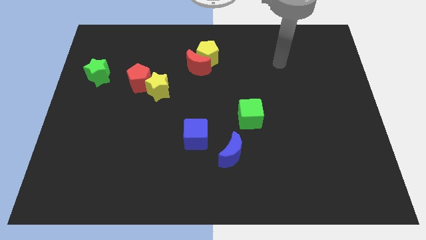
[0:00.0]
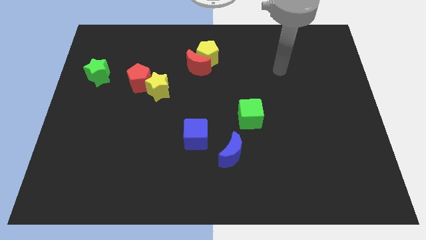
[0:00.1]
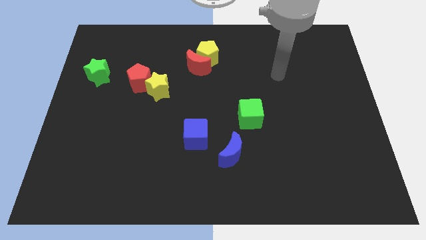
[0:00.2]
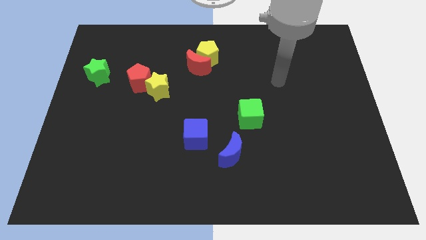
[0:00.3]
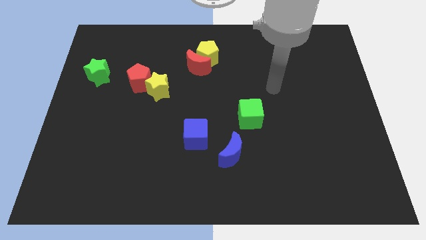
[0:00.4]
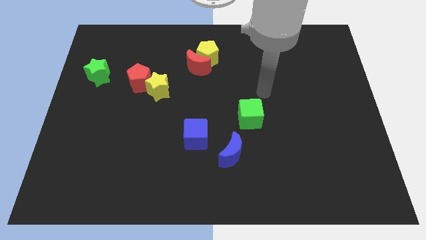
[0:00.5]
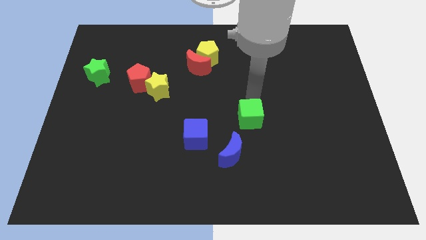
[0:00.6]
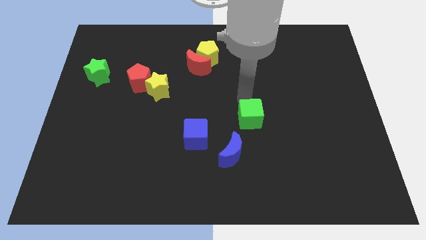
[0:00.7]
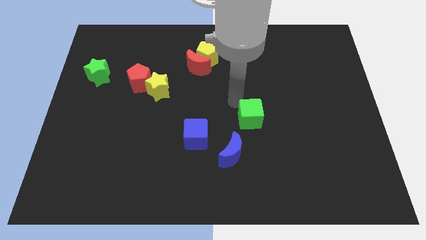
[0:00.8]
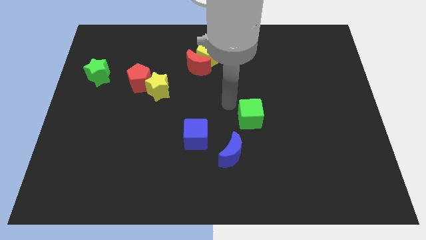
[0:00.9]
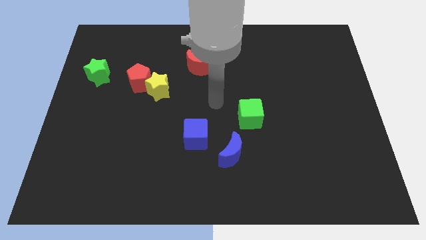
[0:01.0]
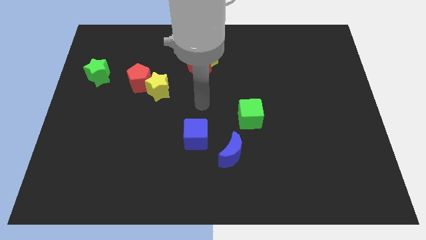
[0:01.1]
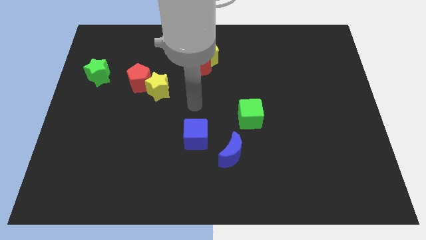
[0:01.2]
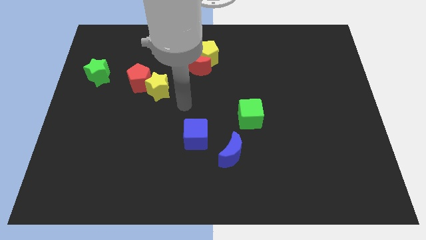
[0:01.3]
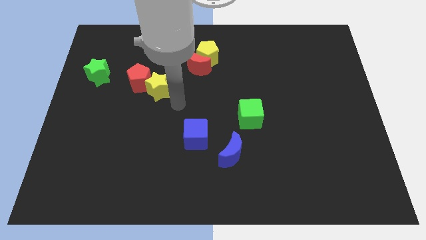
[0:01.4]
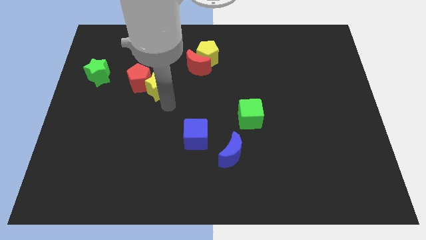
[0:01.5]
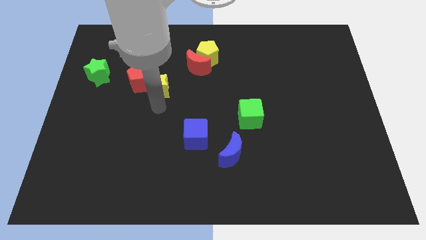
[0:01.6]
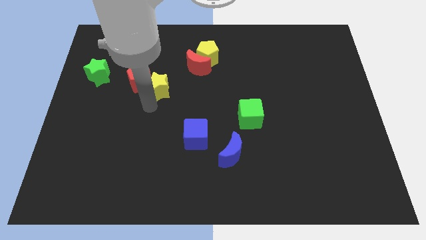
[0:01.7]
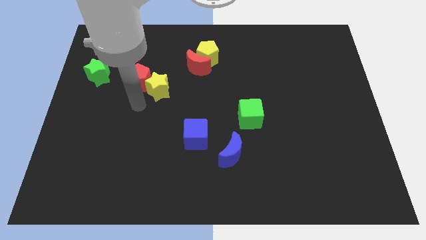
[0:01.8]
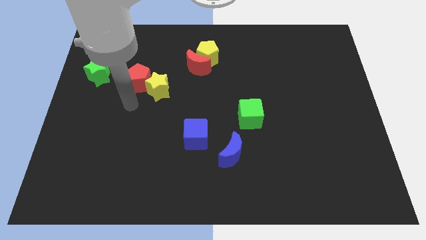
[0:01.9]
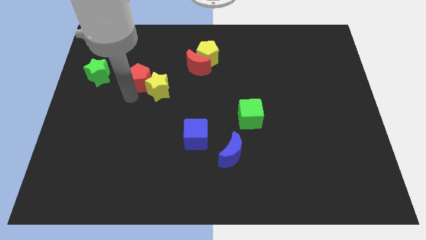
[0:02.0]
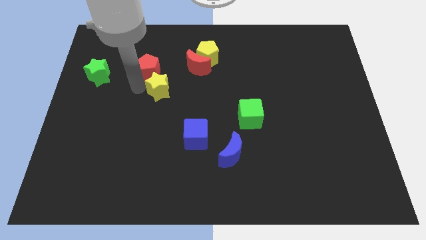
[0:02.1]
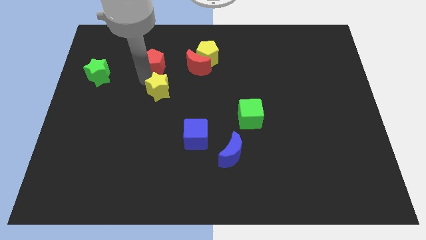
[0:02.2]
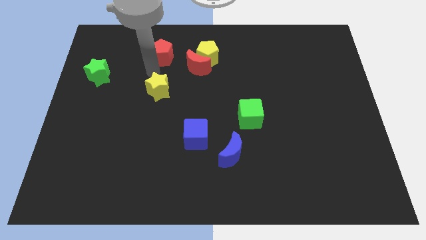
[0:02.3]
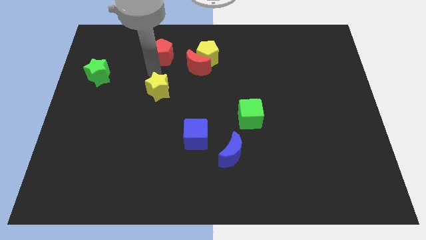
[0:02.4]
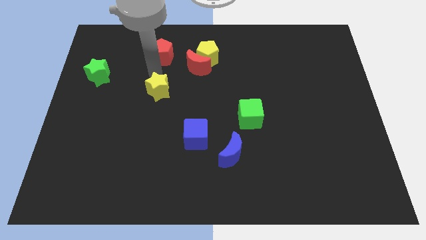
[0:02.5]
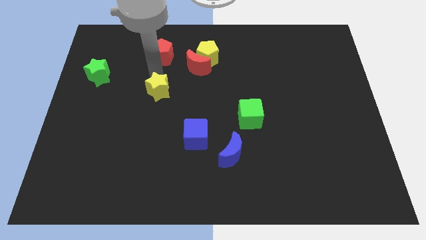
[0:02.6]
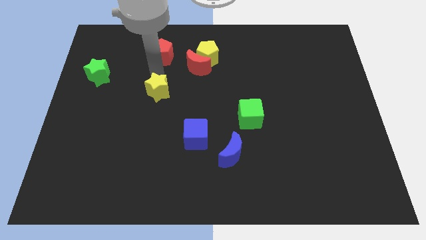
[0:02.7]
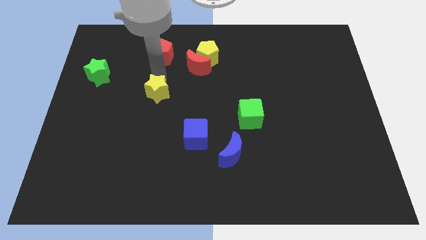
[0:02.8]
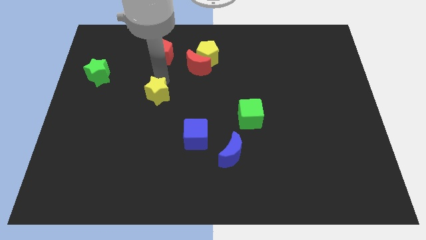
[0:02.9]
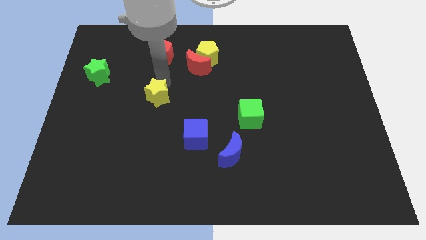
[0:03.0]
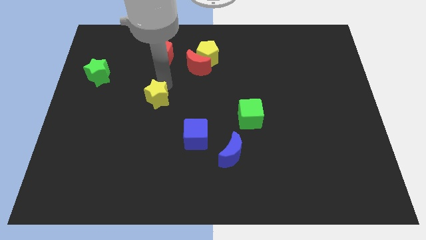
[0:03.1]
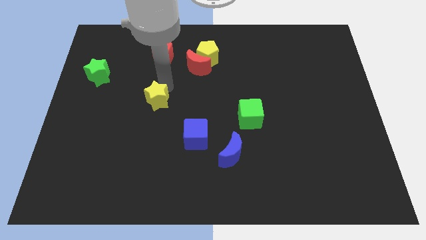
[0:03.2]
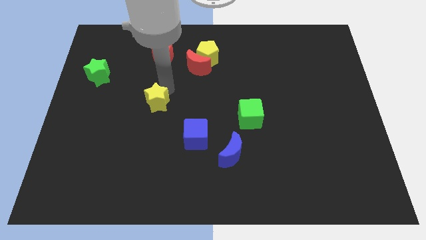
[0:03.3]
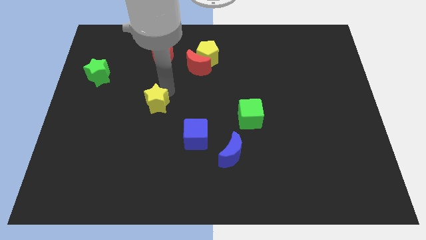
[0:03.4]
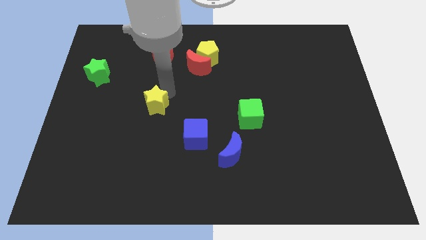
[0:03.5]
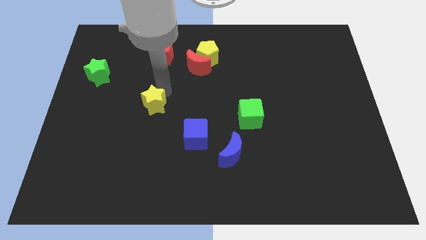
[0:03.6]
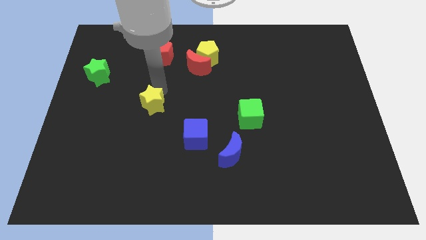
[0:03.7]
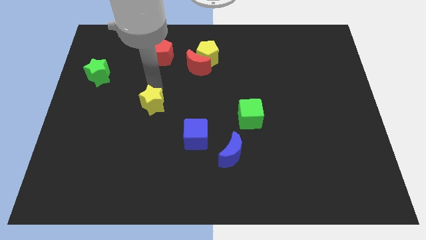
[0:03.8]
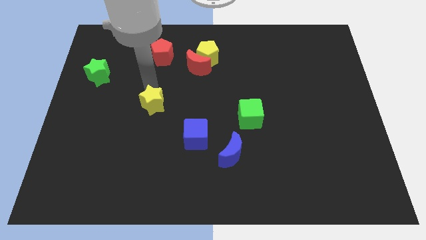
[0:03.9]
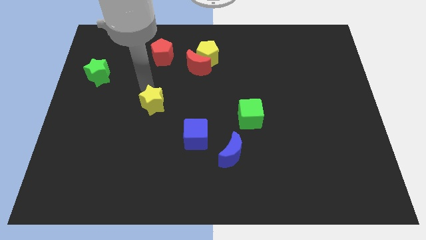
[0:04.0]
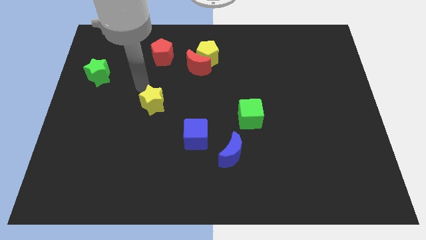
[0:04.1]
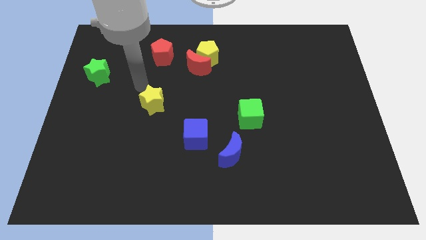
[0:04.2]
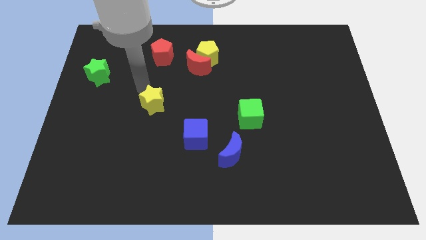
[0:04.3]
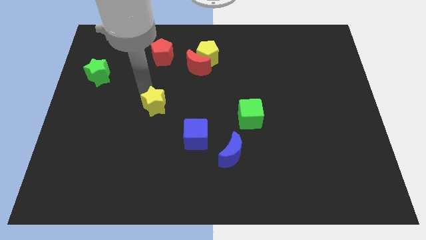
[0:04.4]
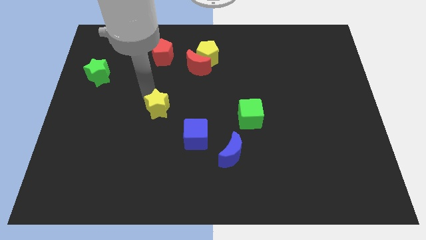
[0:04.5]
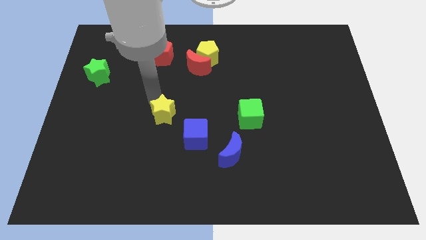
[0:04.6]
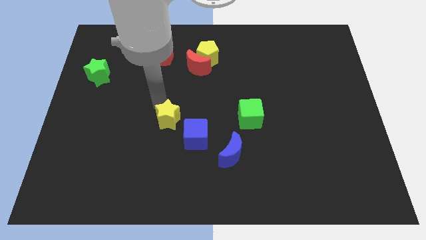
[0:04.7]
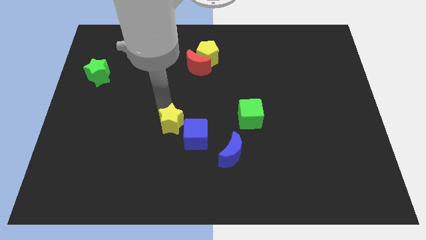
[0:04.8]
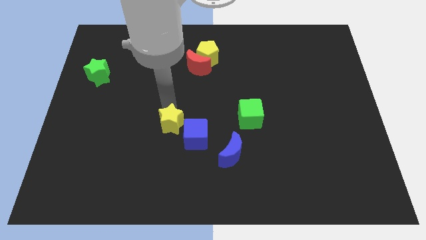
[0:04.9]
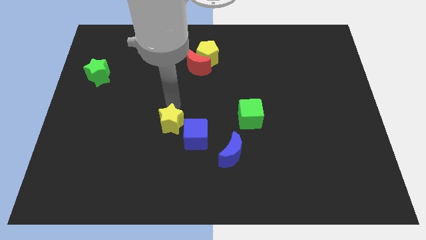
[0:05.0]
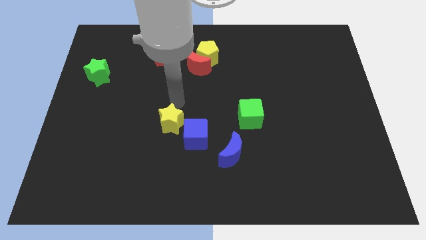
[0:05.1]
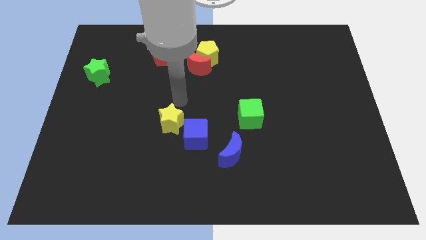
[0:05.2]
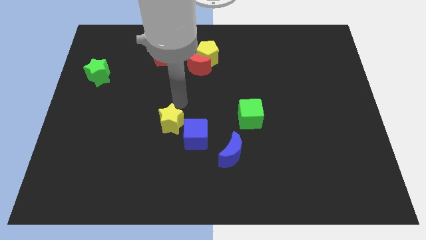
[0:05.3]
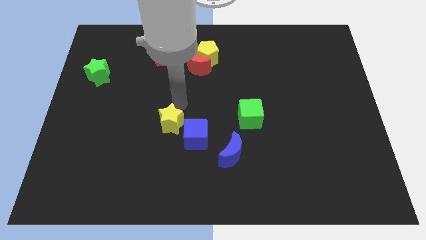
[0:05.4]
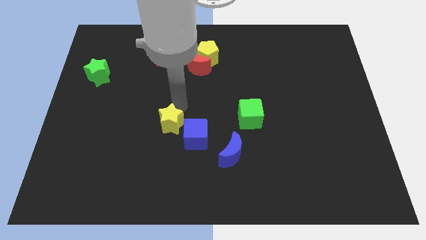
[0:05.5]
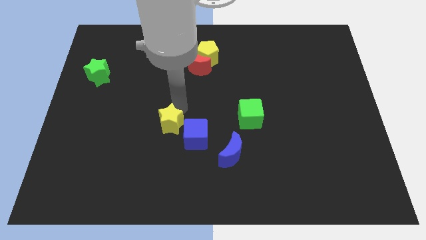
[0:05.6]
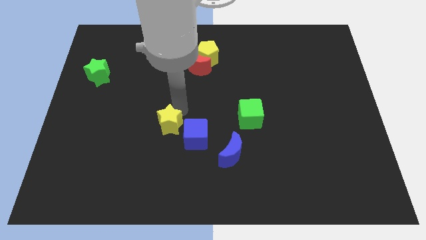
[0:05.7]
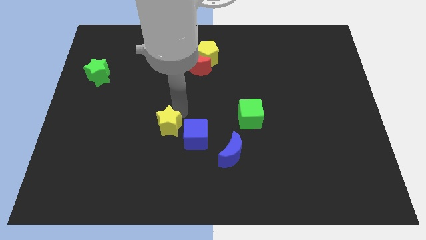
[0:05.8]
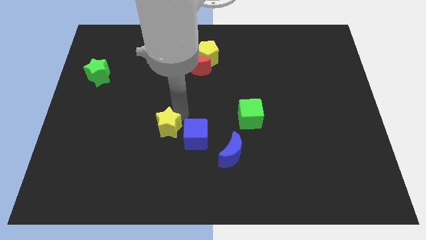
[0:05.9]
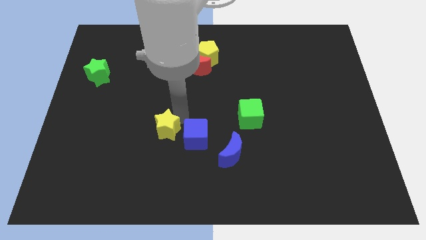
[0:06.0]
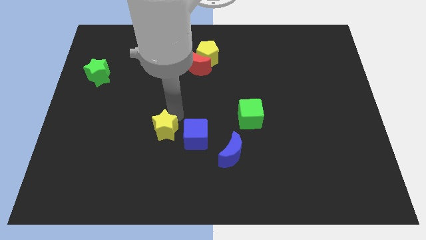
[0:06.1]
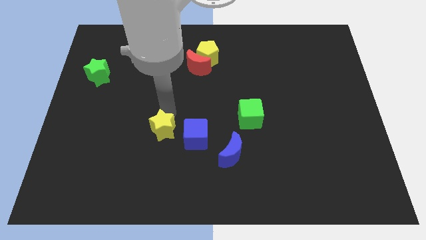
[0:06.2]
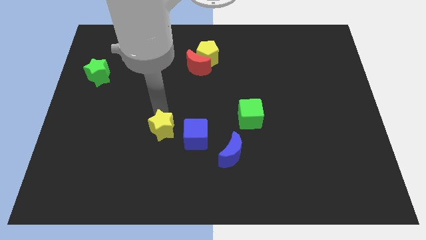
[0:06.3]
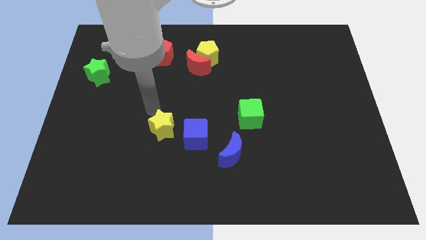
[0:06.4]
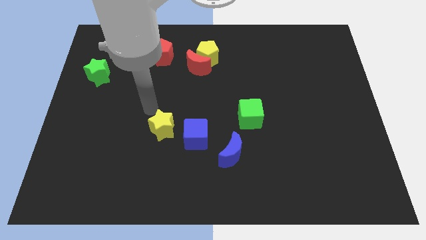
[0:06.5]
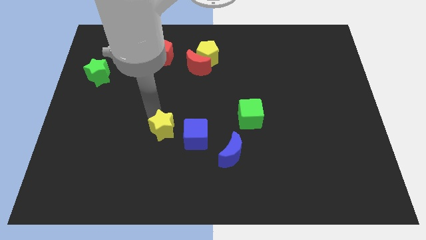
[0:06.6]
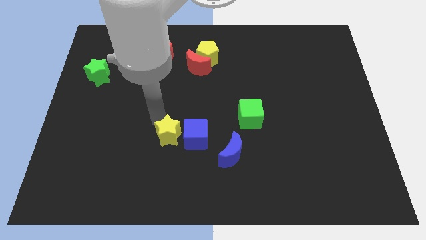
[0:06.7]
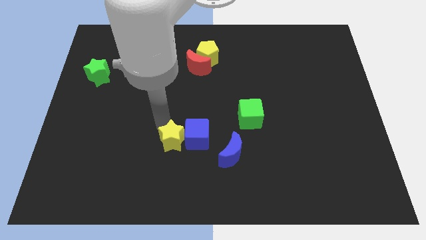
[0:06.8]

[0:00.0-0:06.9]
move the yellow star to the left of the blue moon

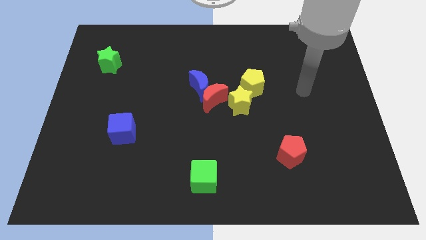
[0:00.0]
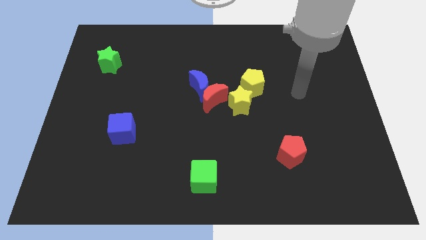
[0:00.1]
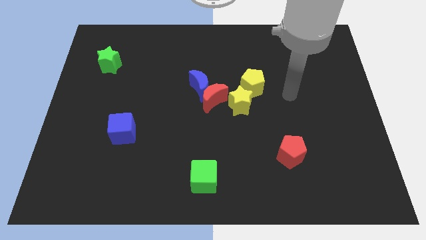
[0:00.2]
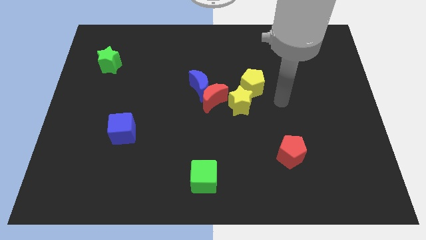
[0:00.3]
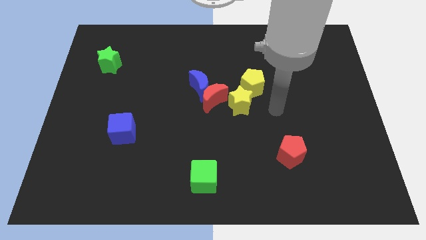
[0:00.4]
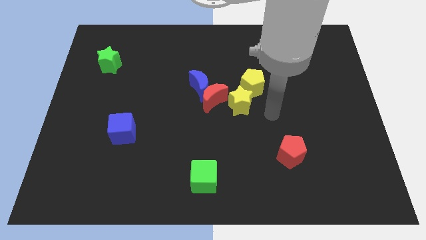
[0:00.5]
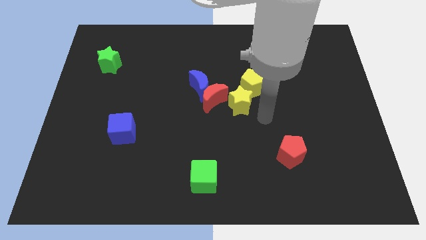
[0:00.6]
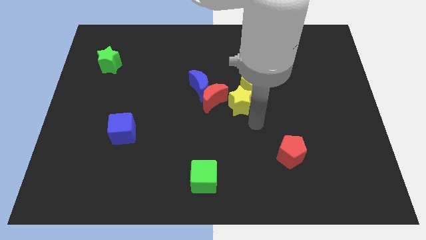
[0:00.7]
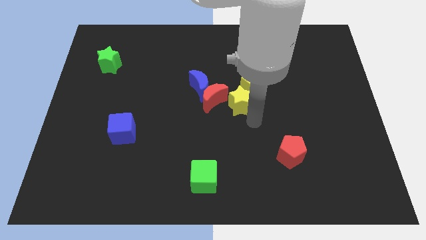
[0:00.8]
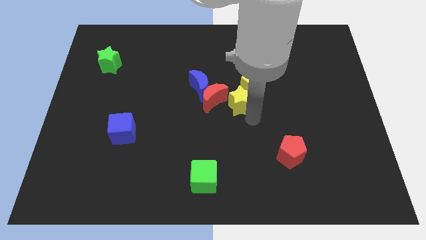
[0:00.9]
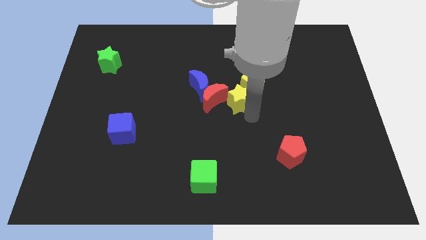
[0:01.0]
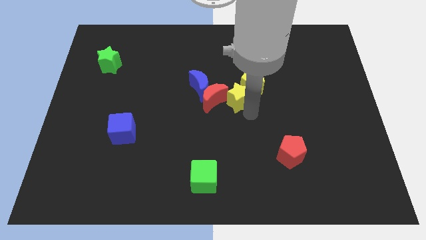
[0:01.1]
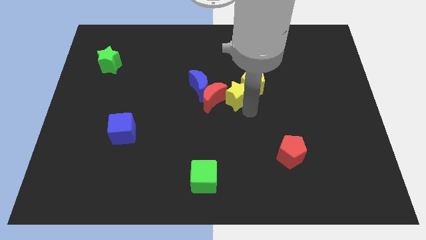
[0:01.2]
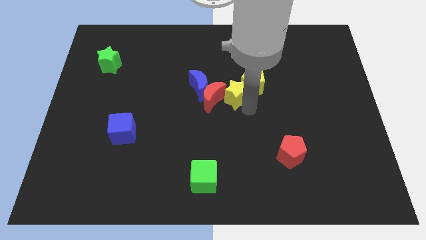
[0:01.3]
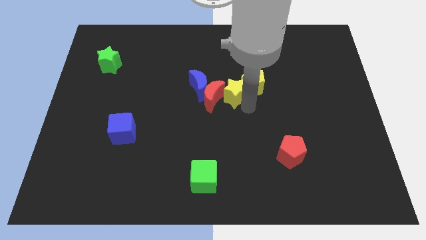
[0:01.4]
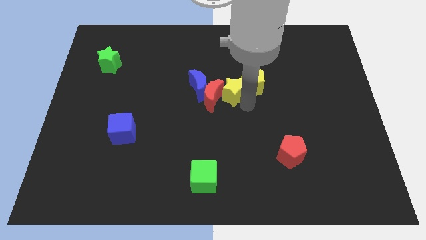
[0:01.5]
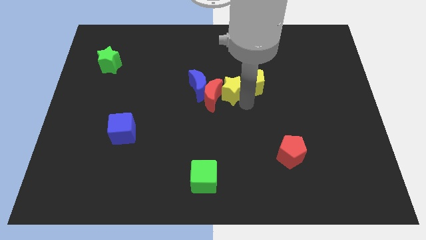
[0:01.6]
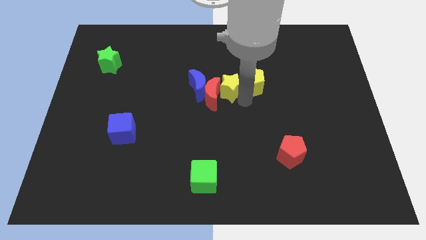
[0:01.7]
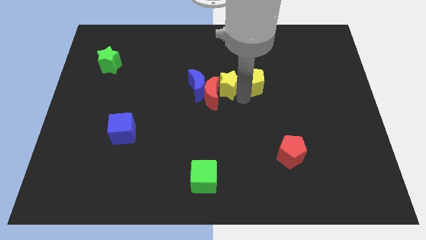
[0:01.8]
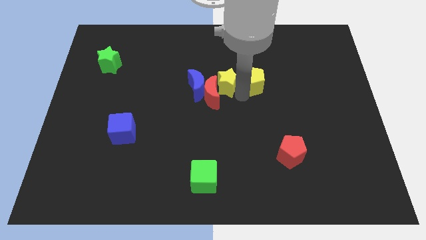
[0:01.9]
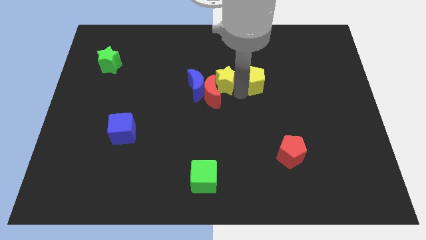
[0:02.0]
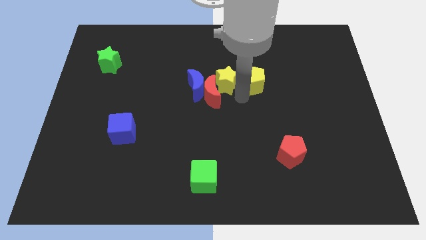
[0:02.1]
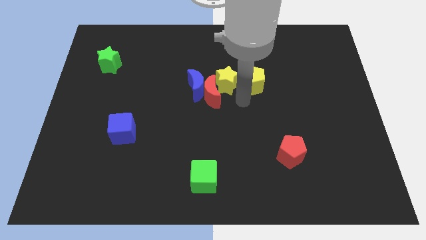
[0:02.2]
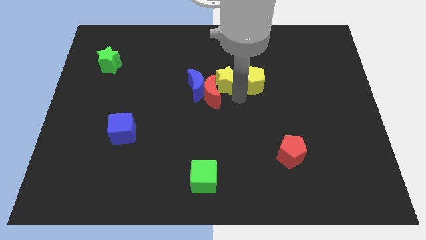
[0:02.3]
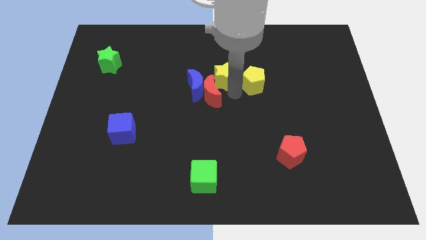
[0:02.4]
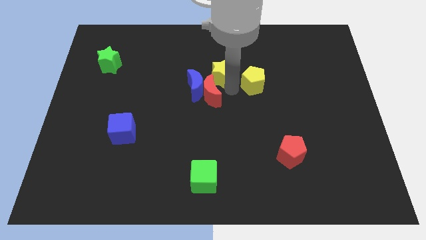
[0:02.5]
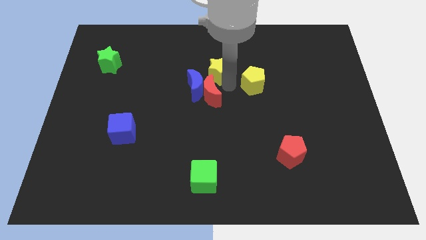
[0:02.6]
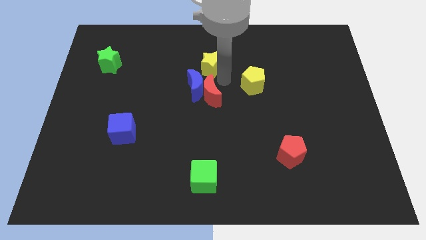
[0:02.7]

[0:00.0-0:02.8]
put the yellow star to the top side of the blue moon
